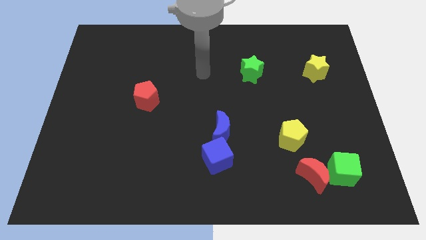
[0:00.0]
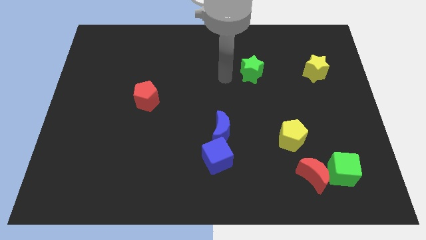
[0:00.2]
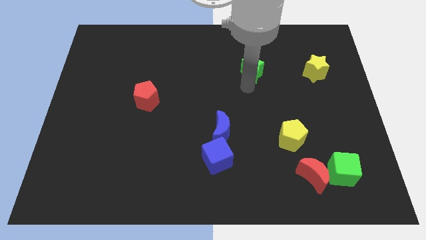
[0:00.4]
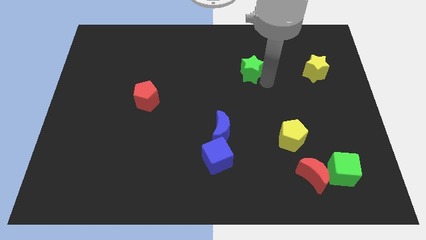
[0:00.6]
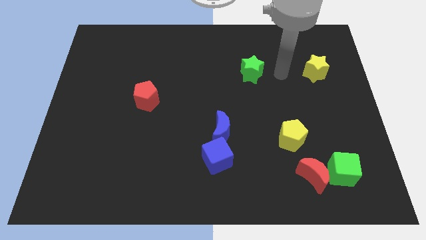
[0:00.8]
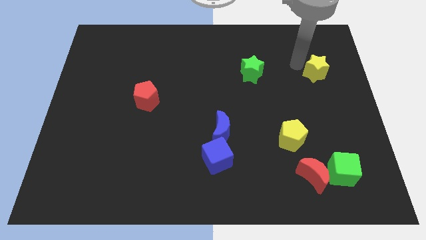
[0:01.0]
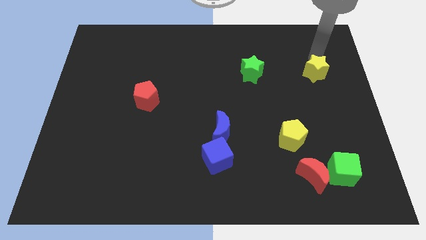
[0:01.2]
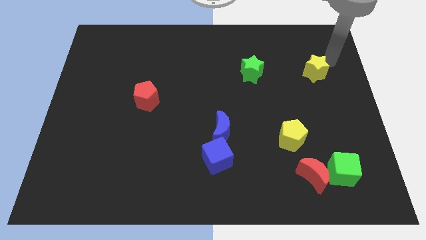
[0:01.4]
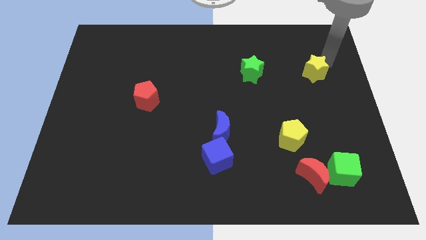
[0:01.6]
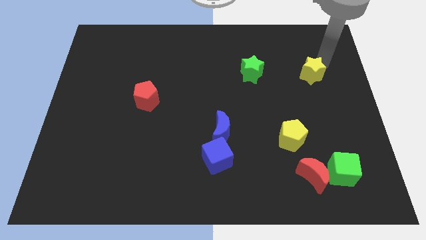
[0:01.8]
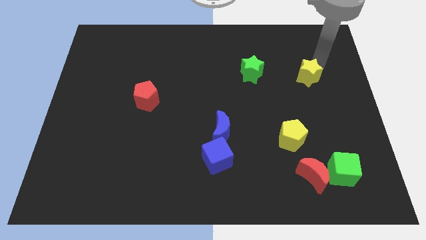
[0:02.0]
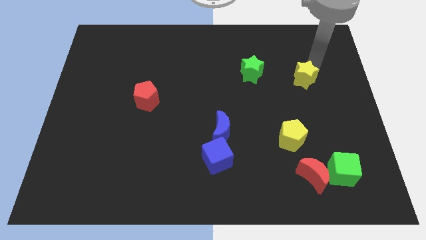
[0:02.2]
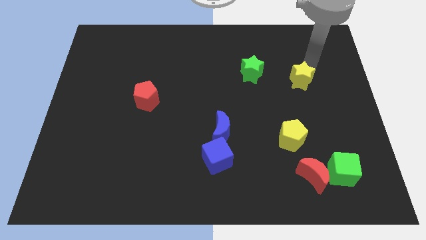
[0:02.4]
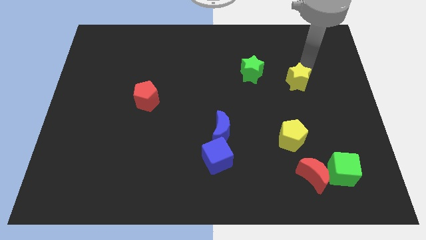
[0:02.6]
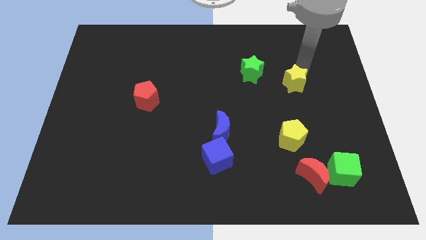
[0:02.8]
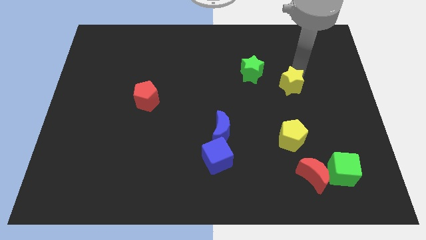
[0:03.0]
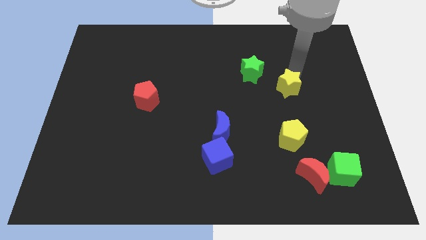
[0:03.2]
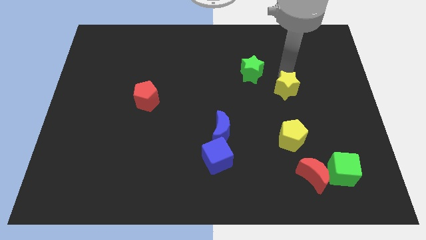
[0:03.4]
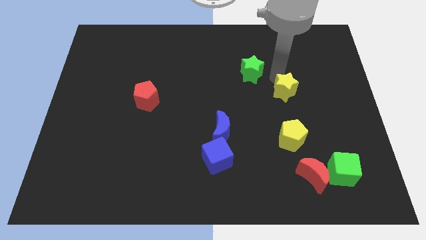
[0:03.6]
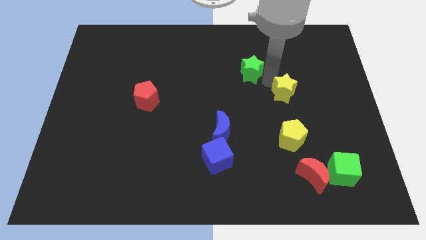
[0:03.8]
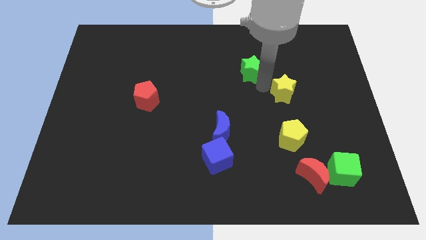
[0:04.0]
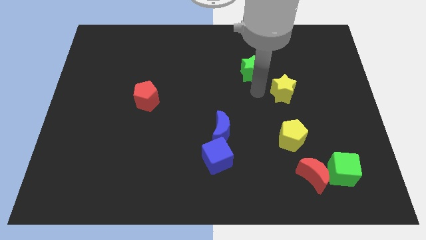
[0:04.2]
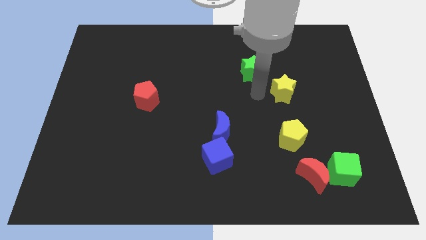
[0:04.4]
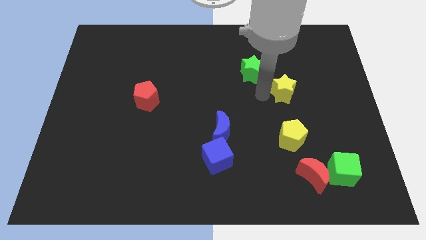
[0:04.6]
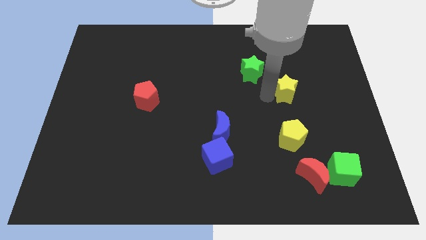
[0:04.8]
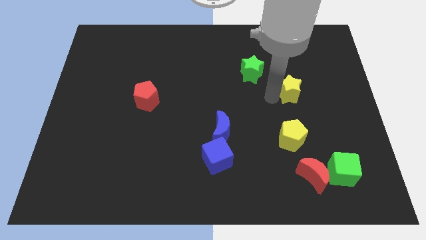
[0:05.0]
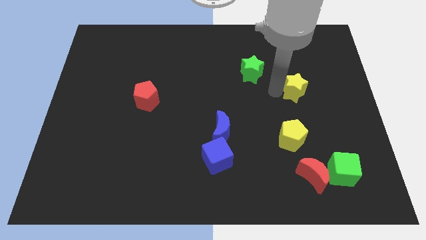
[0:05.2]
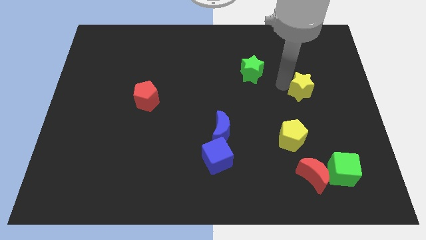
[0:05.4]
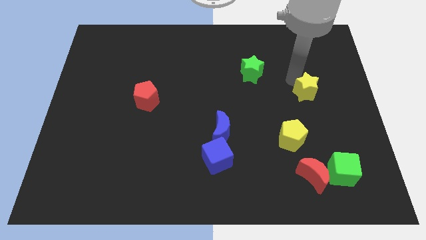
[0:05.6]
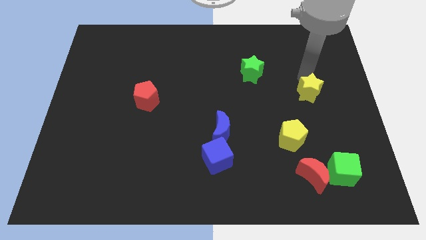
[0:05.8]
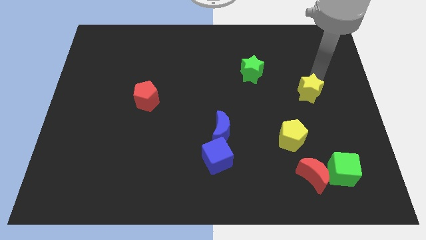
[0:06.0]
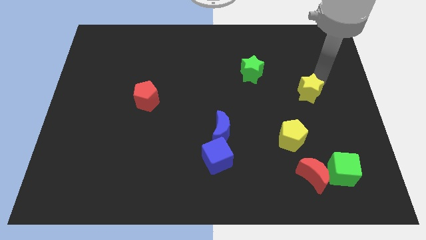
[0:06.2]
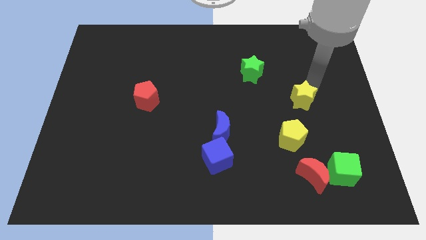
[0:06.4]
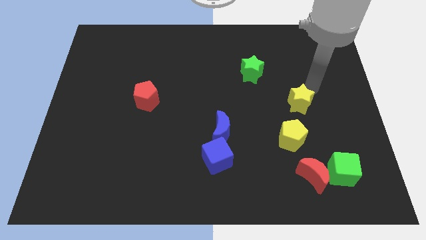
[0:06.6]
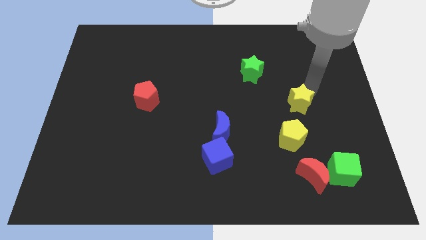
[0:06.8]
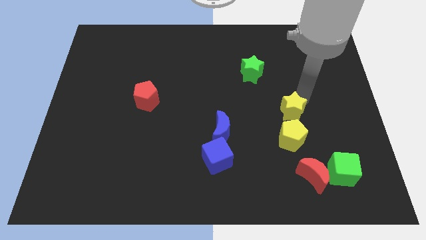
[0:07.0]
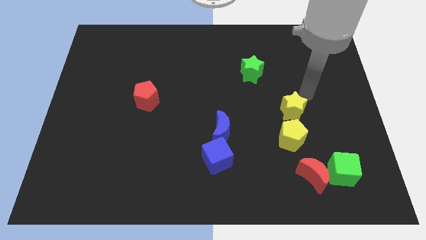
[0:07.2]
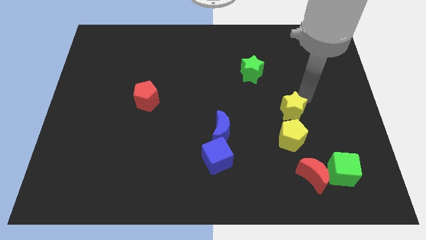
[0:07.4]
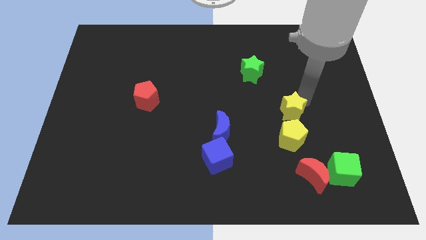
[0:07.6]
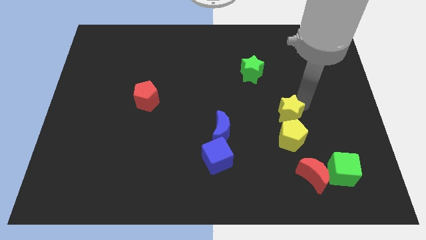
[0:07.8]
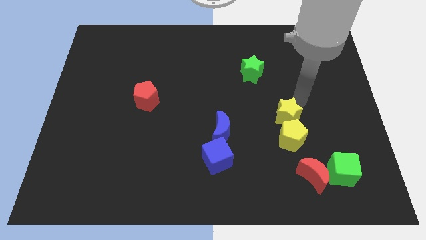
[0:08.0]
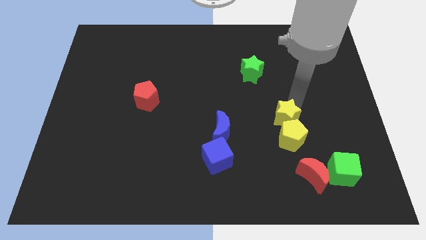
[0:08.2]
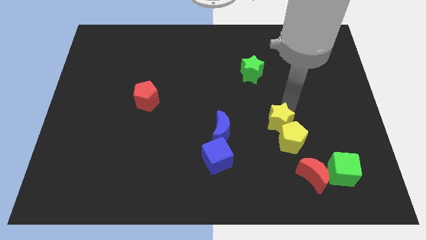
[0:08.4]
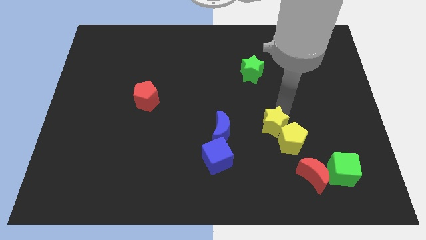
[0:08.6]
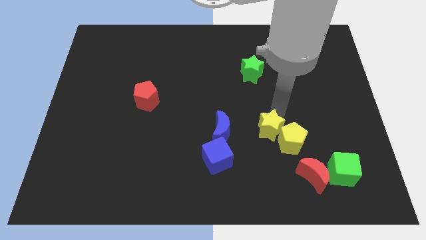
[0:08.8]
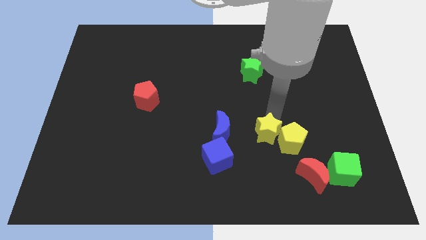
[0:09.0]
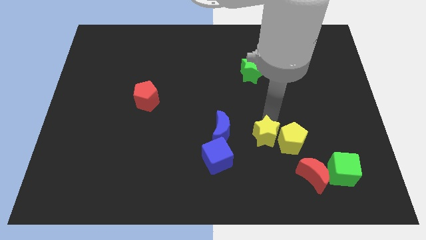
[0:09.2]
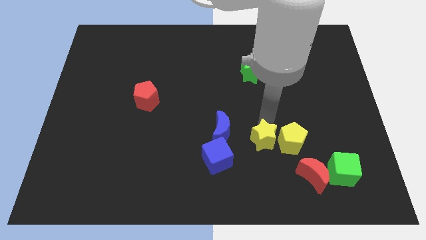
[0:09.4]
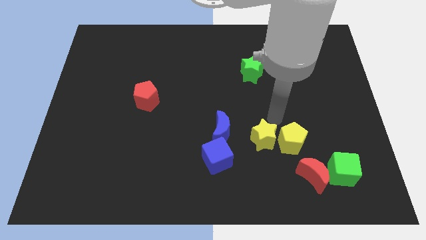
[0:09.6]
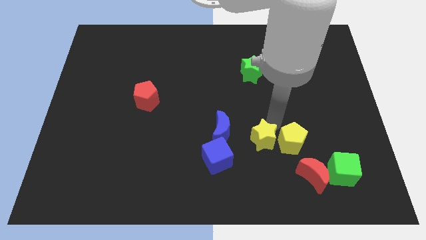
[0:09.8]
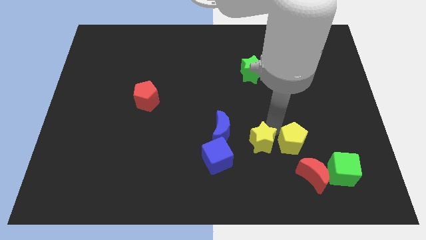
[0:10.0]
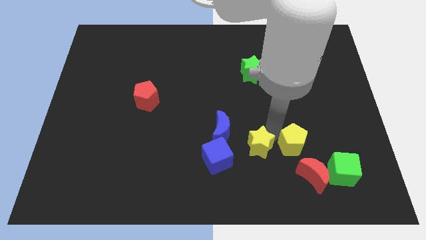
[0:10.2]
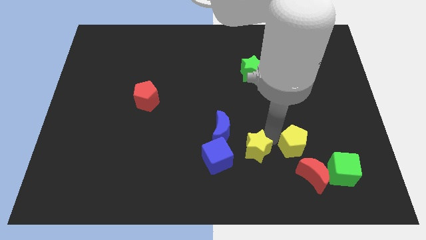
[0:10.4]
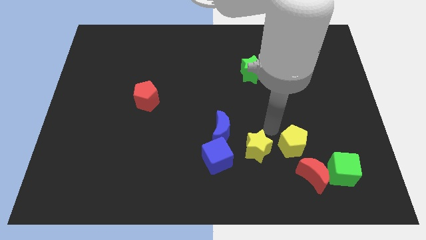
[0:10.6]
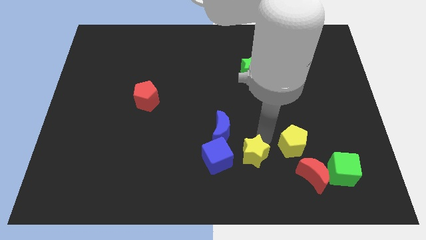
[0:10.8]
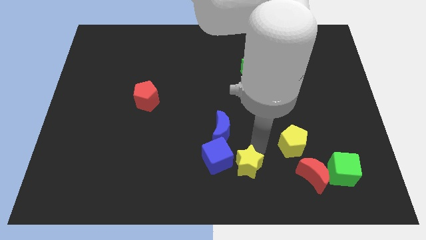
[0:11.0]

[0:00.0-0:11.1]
slide the yellow star to the bottom side

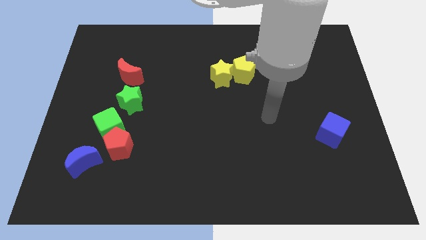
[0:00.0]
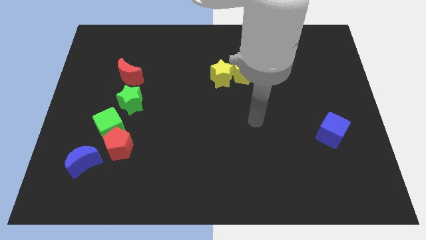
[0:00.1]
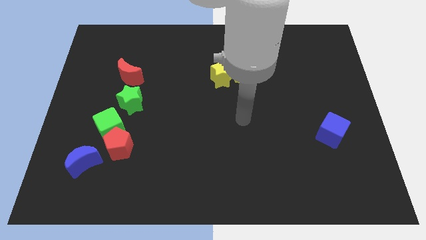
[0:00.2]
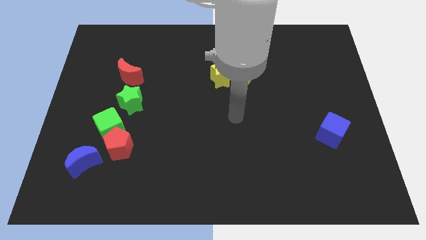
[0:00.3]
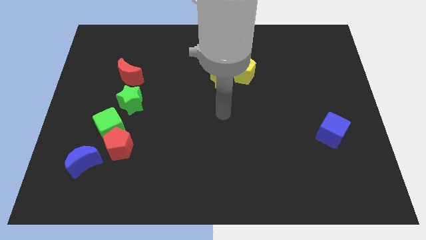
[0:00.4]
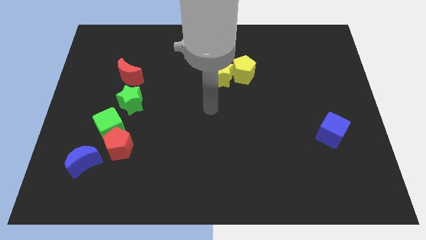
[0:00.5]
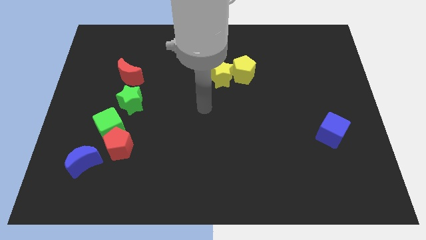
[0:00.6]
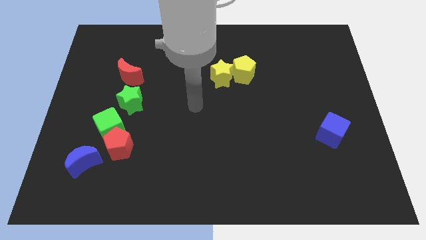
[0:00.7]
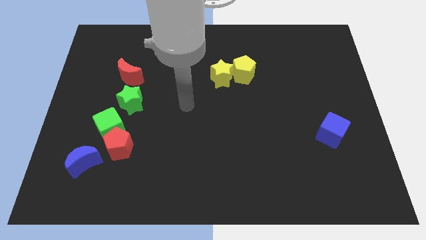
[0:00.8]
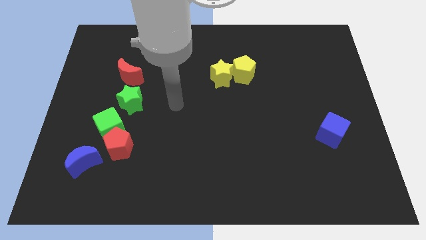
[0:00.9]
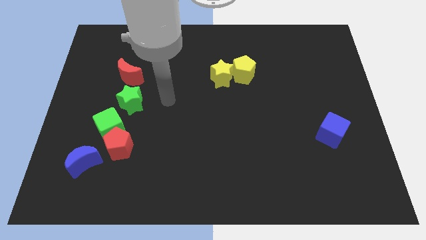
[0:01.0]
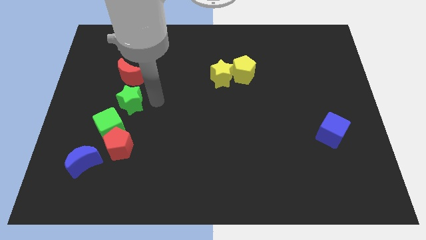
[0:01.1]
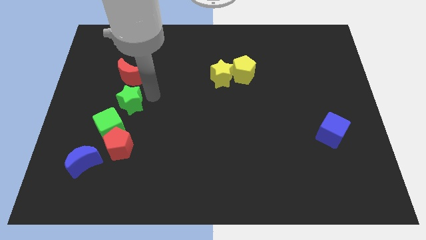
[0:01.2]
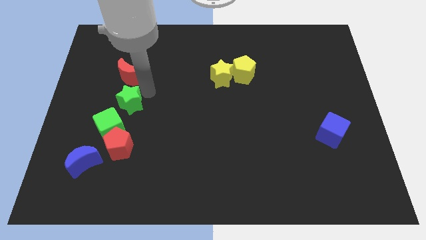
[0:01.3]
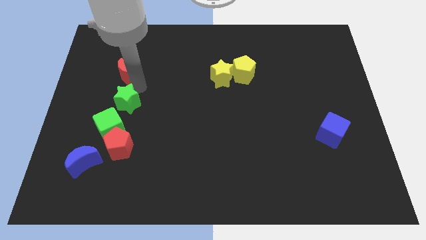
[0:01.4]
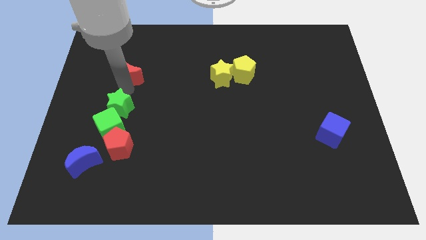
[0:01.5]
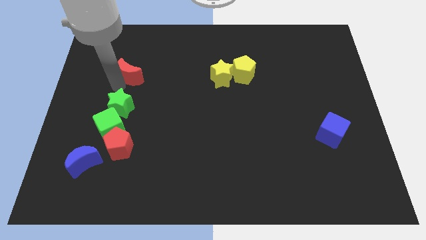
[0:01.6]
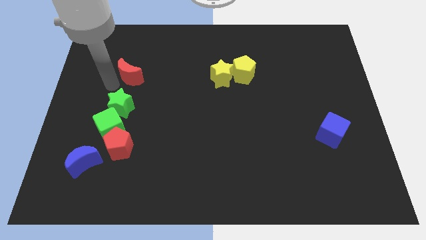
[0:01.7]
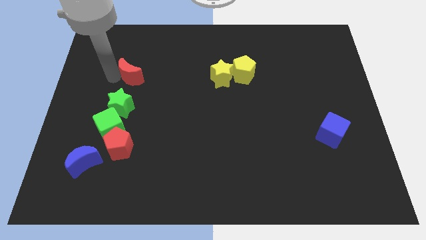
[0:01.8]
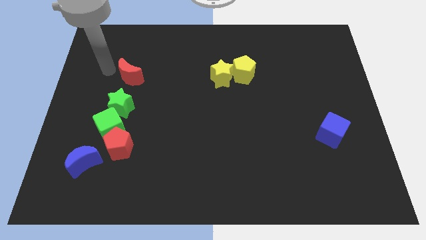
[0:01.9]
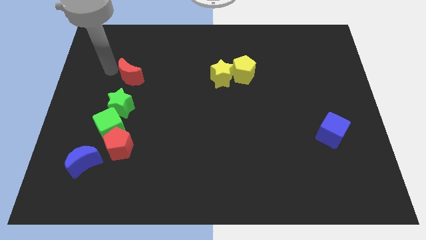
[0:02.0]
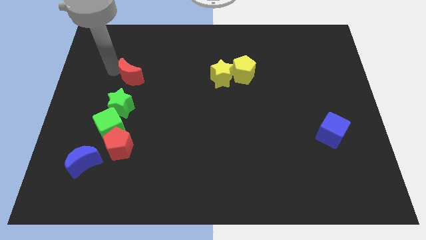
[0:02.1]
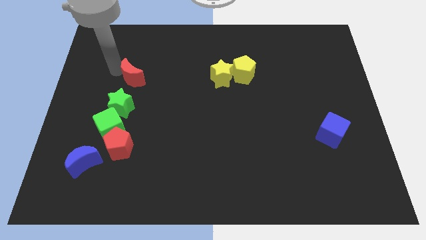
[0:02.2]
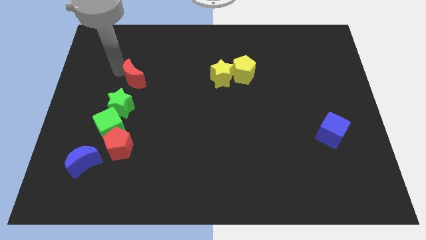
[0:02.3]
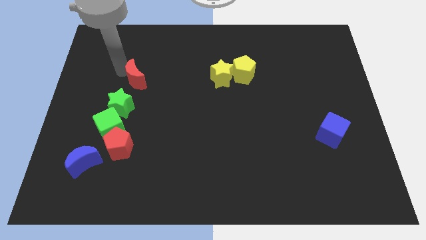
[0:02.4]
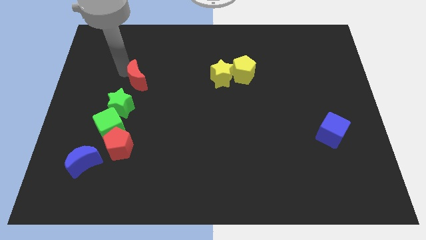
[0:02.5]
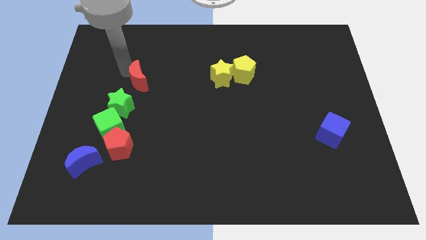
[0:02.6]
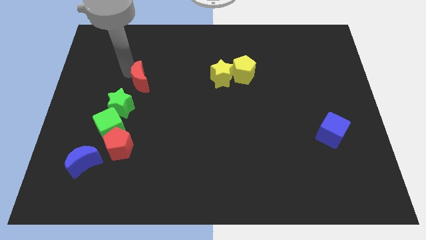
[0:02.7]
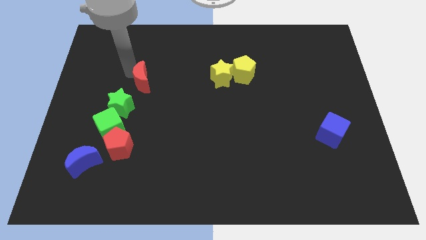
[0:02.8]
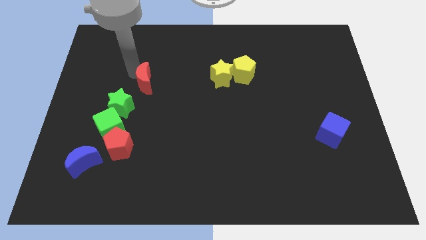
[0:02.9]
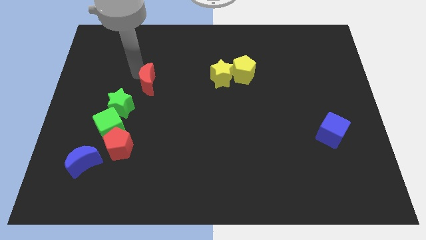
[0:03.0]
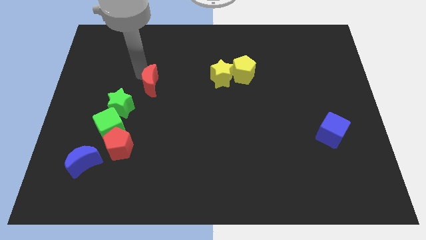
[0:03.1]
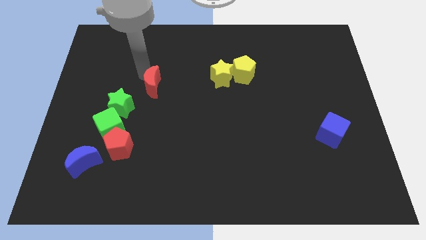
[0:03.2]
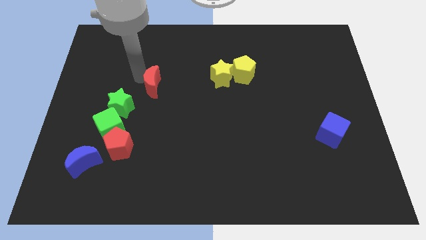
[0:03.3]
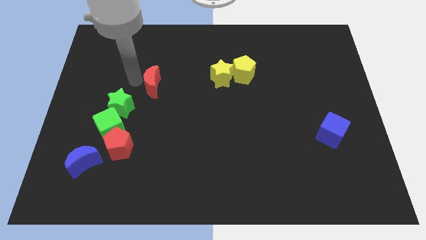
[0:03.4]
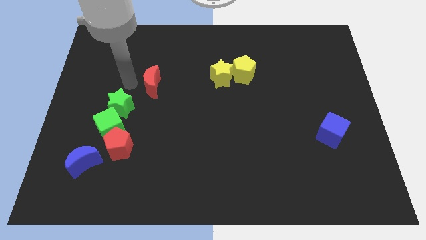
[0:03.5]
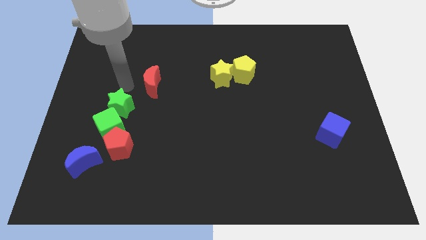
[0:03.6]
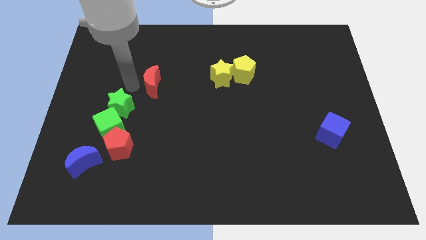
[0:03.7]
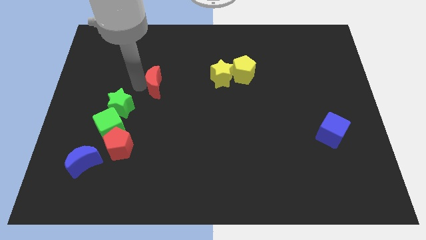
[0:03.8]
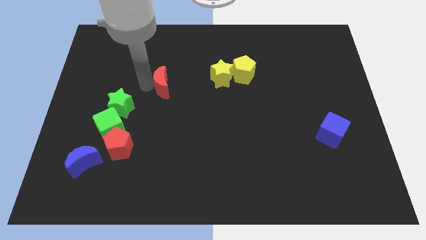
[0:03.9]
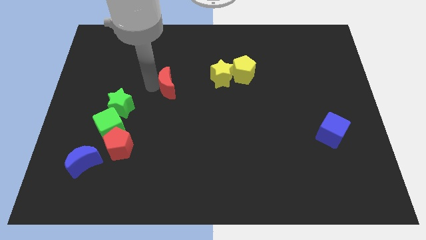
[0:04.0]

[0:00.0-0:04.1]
push the red moon to the middle
